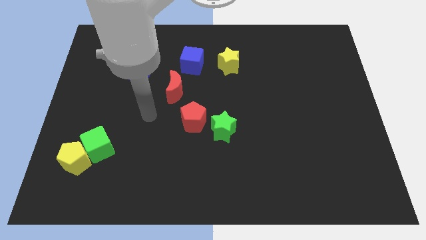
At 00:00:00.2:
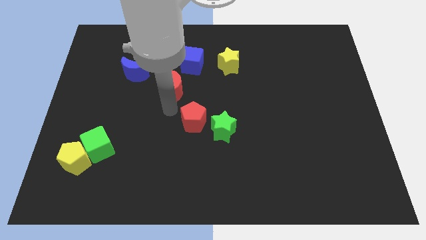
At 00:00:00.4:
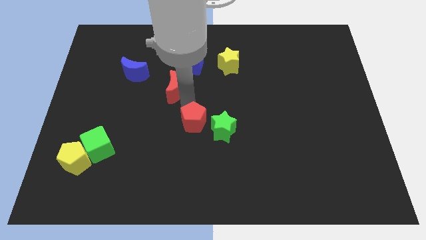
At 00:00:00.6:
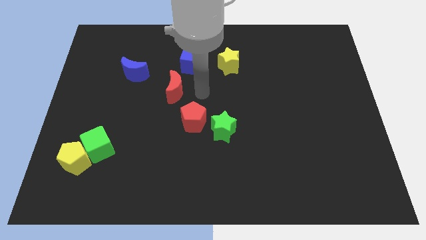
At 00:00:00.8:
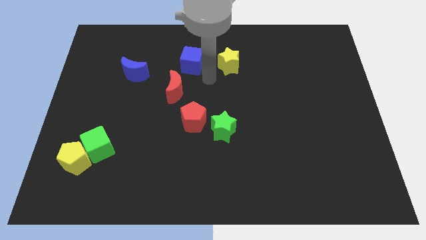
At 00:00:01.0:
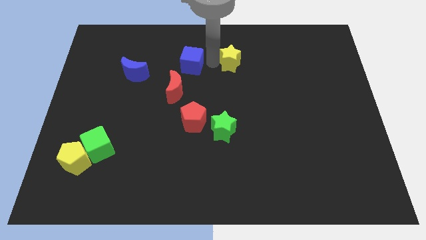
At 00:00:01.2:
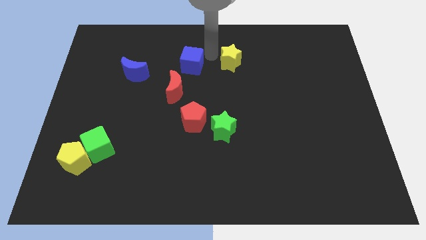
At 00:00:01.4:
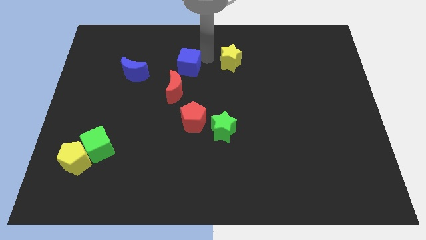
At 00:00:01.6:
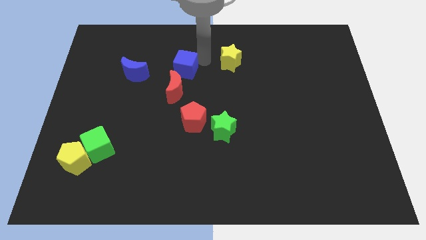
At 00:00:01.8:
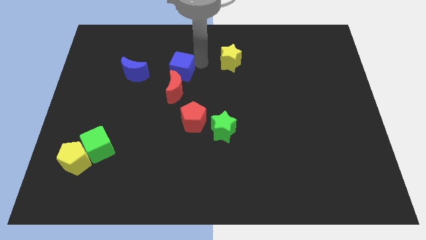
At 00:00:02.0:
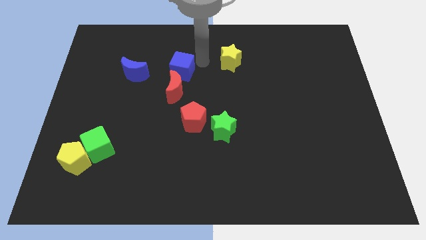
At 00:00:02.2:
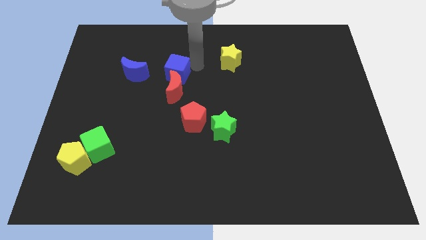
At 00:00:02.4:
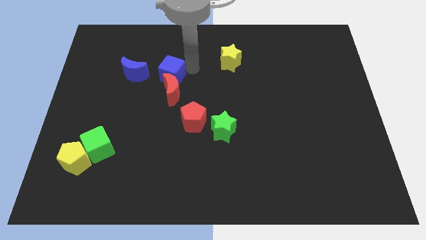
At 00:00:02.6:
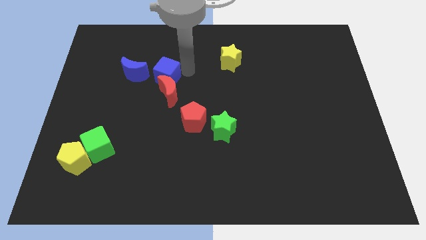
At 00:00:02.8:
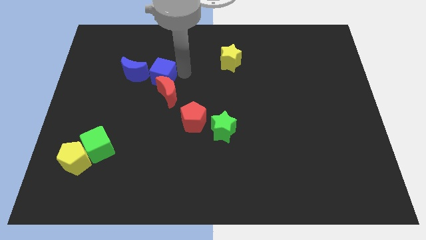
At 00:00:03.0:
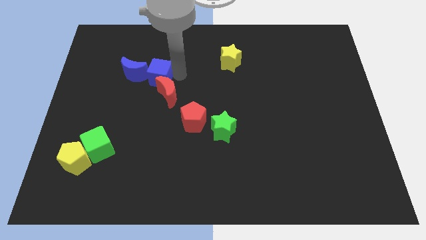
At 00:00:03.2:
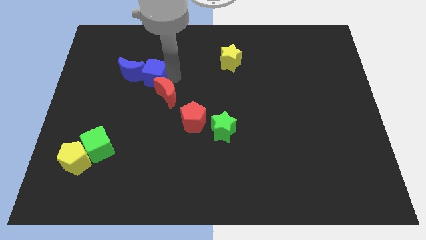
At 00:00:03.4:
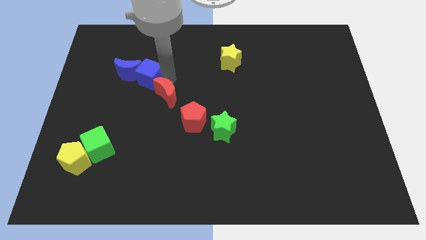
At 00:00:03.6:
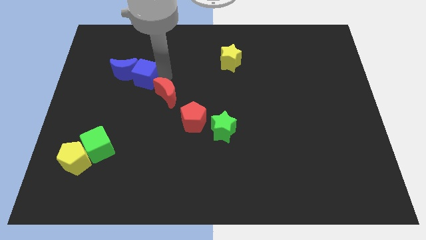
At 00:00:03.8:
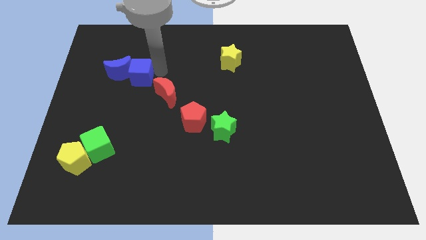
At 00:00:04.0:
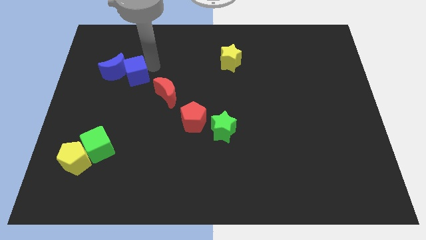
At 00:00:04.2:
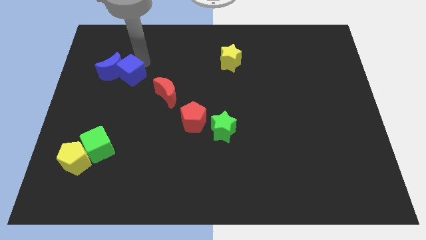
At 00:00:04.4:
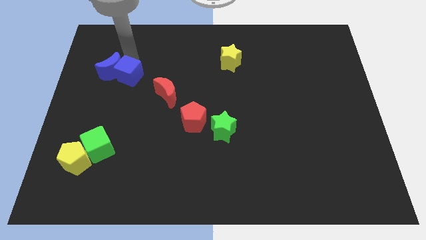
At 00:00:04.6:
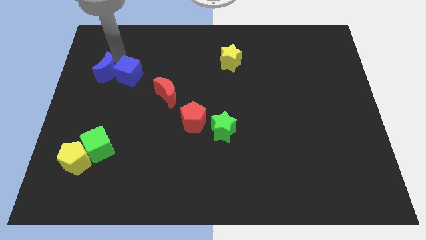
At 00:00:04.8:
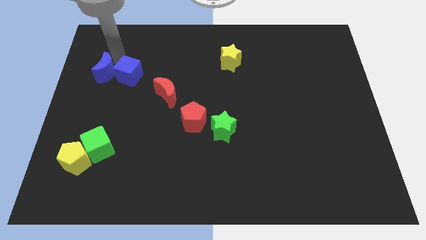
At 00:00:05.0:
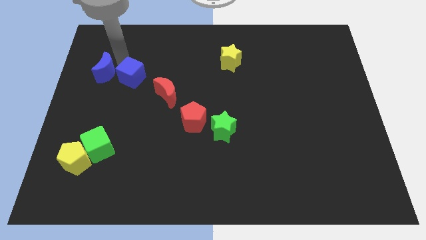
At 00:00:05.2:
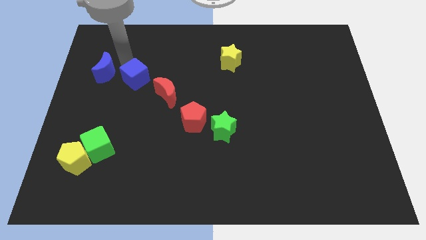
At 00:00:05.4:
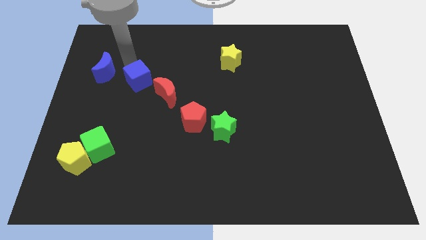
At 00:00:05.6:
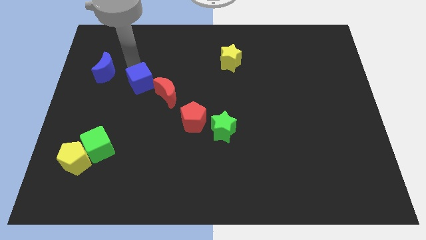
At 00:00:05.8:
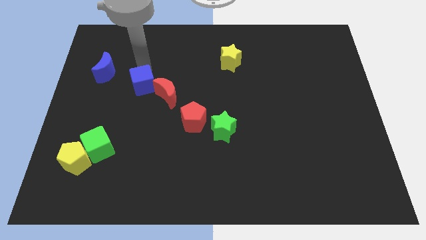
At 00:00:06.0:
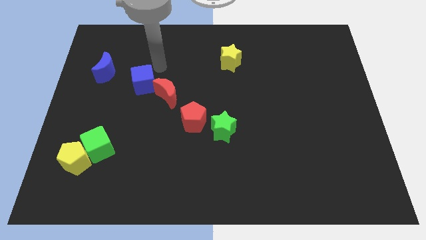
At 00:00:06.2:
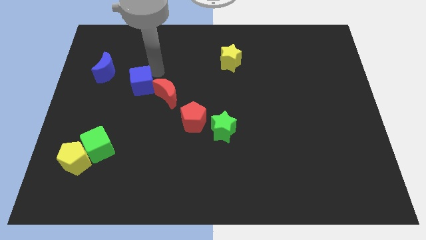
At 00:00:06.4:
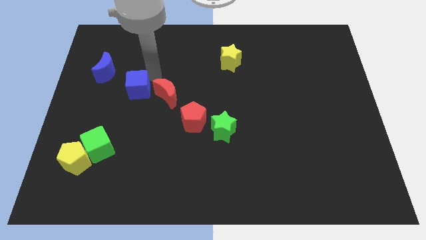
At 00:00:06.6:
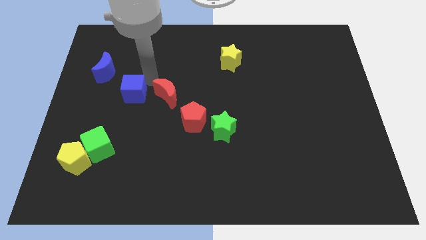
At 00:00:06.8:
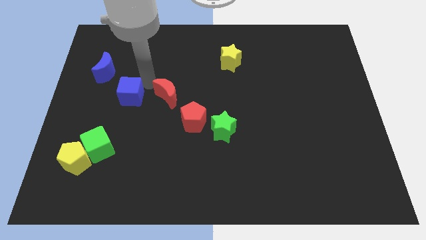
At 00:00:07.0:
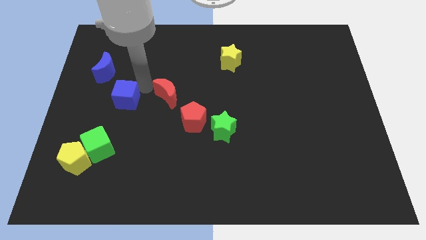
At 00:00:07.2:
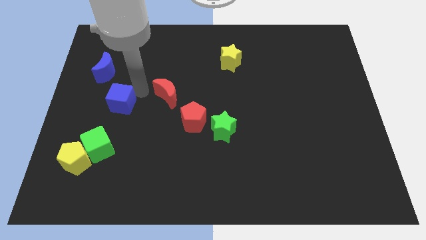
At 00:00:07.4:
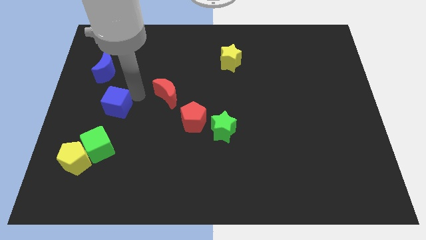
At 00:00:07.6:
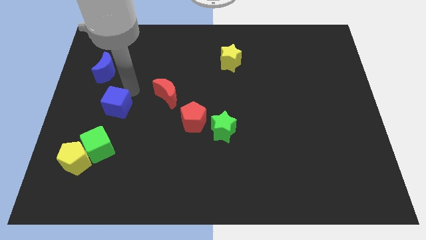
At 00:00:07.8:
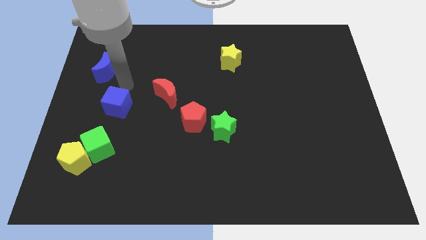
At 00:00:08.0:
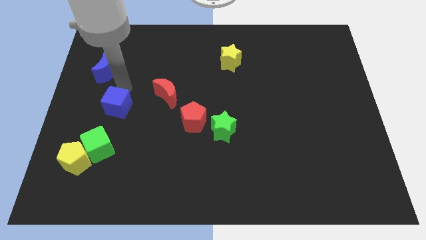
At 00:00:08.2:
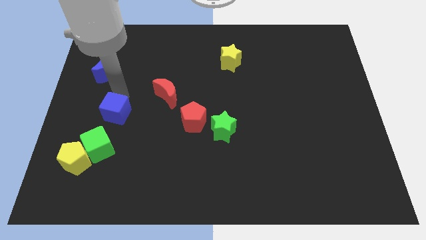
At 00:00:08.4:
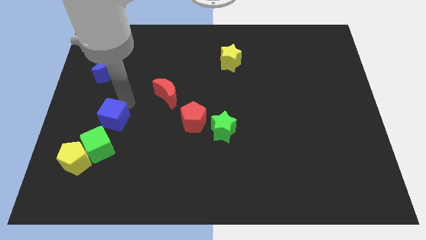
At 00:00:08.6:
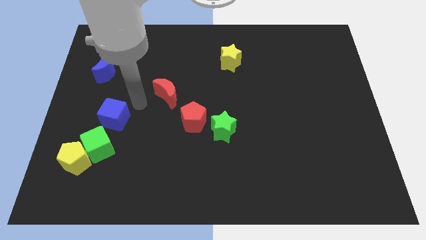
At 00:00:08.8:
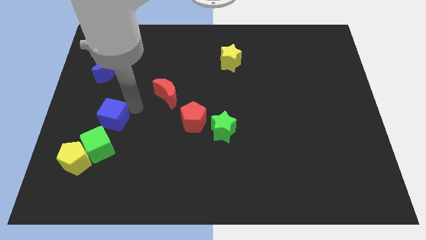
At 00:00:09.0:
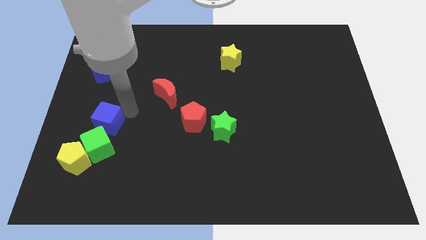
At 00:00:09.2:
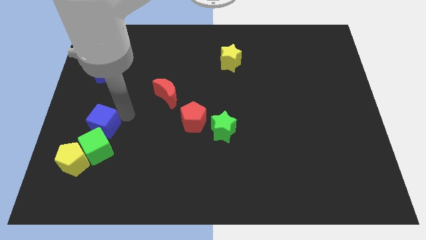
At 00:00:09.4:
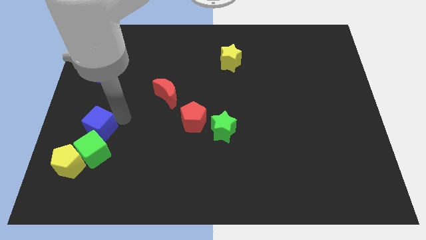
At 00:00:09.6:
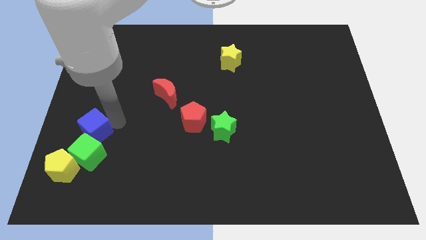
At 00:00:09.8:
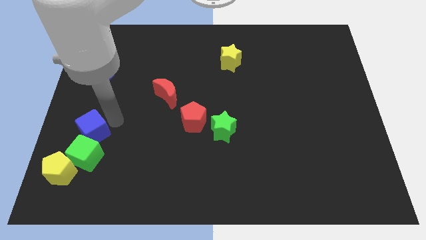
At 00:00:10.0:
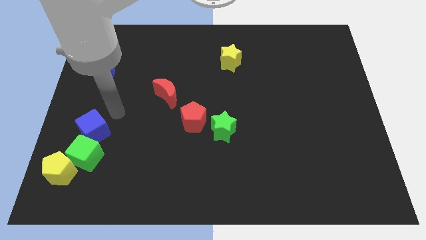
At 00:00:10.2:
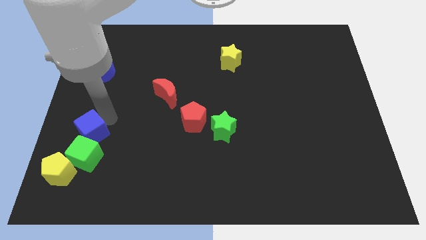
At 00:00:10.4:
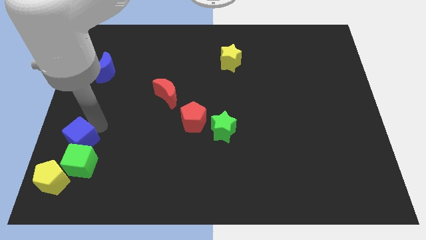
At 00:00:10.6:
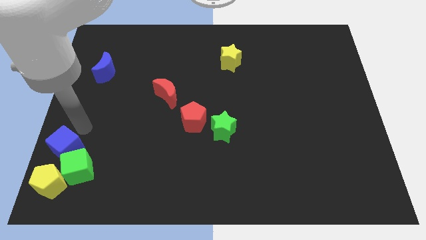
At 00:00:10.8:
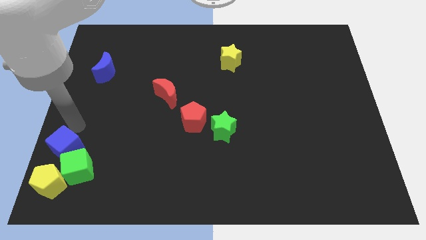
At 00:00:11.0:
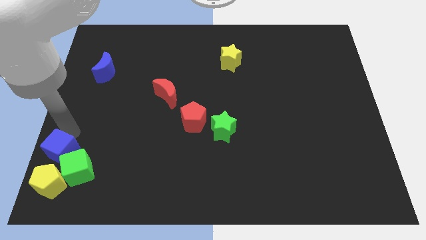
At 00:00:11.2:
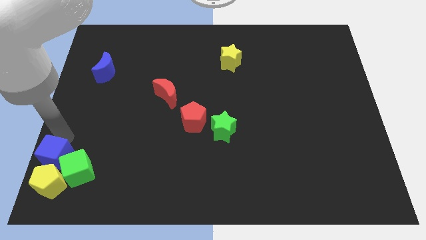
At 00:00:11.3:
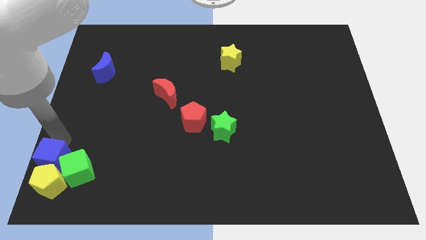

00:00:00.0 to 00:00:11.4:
push the blue cube to the yellow pentagon

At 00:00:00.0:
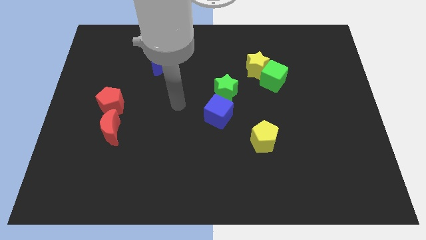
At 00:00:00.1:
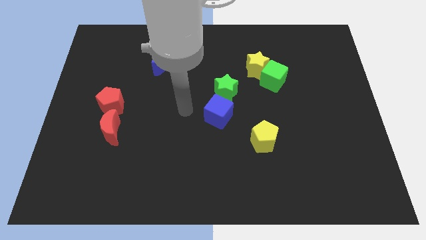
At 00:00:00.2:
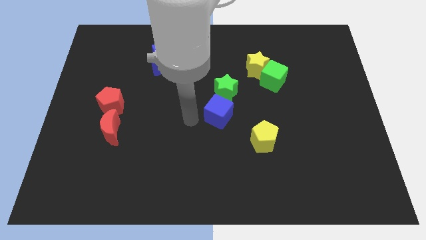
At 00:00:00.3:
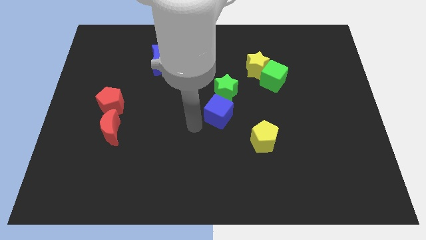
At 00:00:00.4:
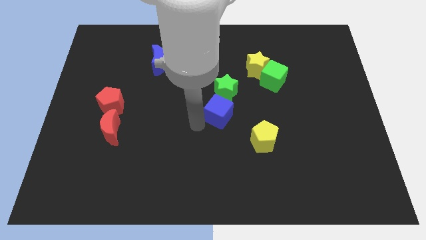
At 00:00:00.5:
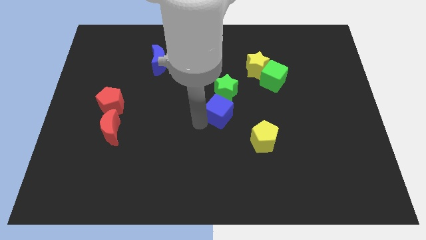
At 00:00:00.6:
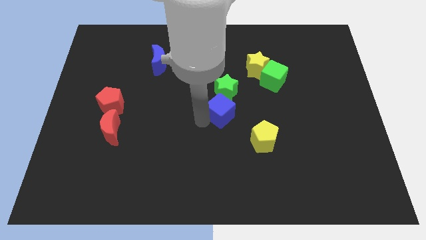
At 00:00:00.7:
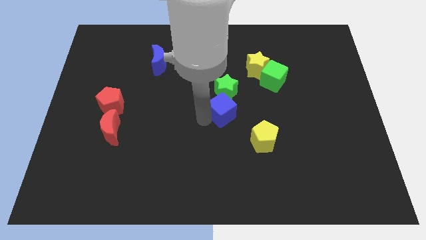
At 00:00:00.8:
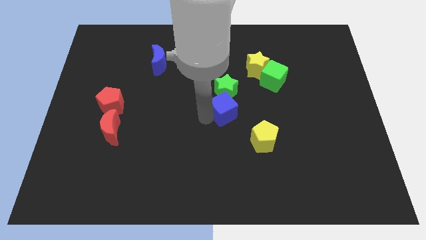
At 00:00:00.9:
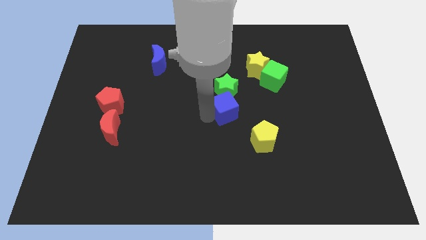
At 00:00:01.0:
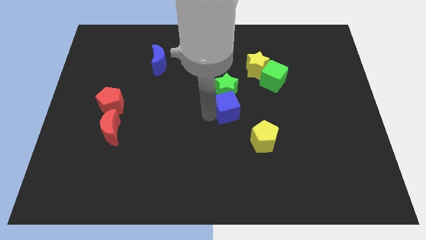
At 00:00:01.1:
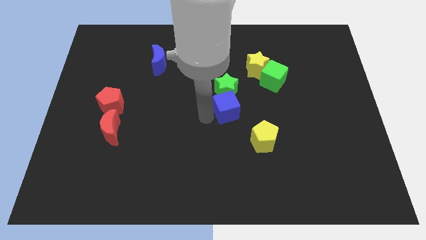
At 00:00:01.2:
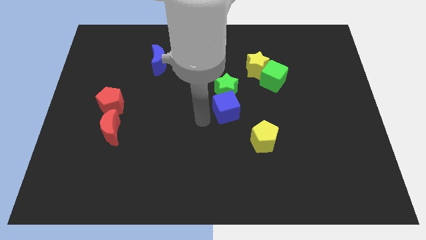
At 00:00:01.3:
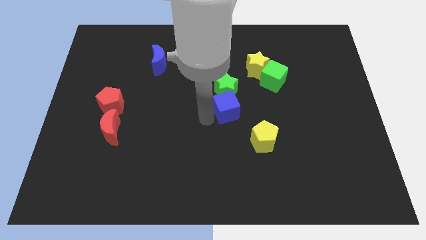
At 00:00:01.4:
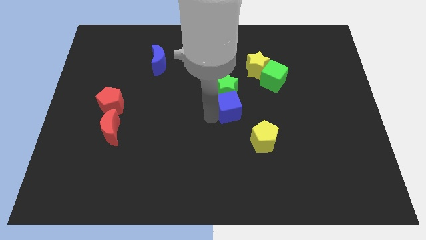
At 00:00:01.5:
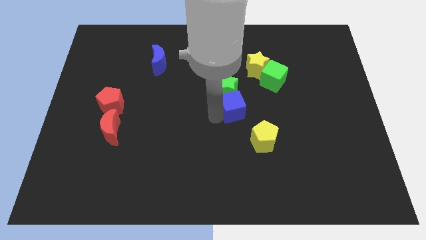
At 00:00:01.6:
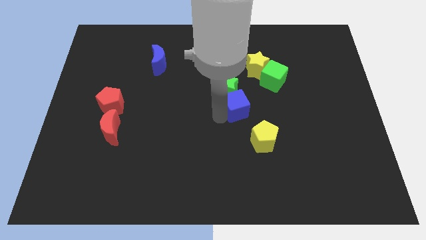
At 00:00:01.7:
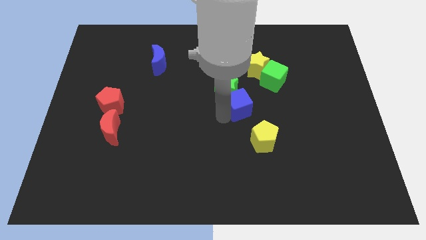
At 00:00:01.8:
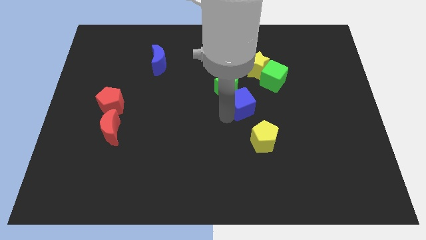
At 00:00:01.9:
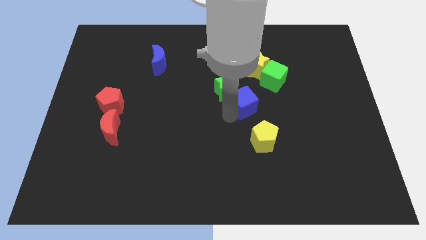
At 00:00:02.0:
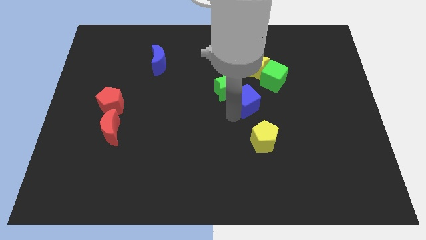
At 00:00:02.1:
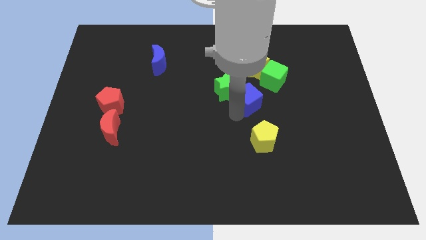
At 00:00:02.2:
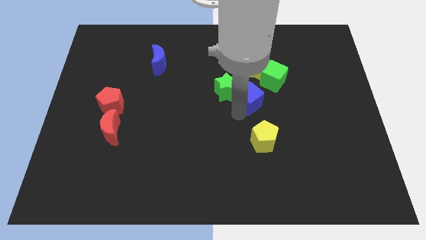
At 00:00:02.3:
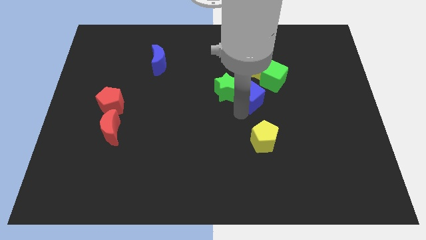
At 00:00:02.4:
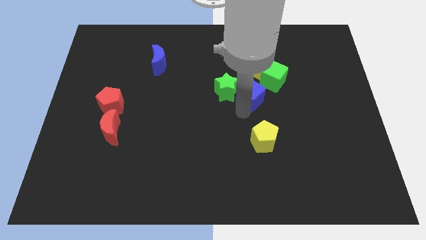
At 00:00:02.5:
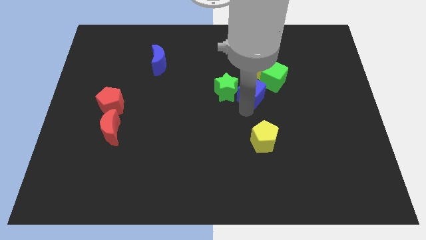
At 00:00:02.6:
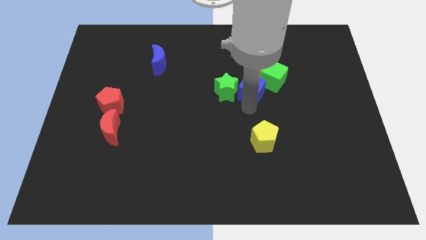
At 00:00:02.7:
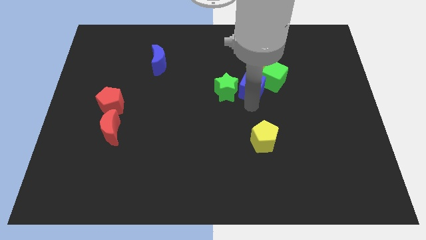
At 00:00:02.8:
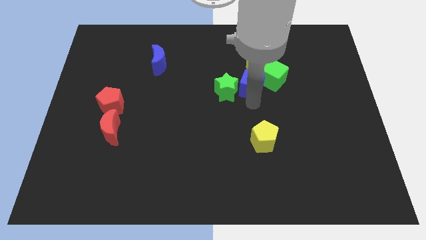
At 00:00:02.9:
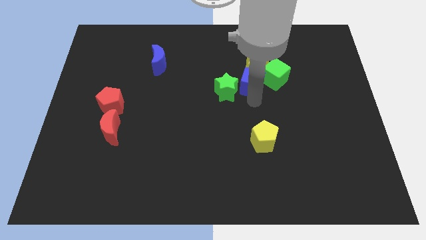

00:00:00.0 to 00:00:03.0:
slide the blue cube to the yellow star
